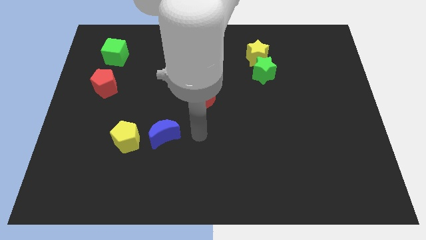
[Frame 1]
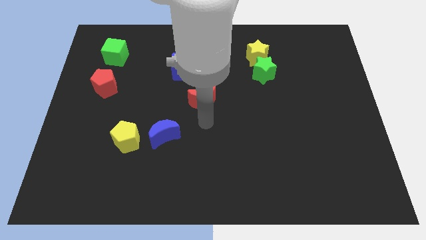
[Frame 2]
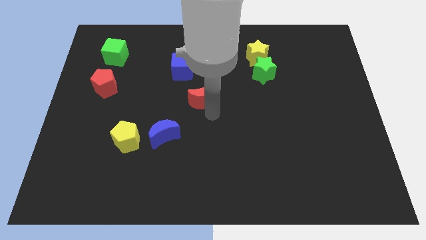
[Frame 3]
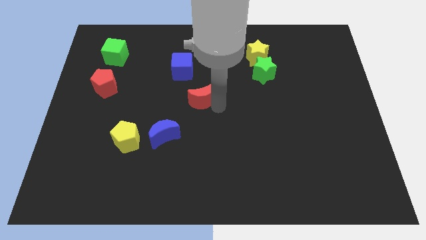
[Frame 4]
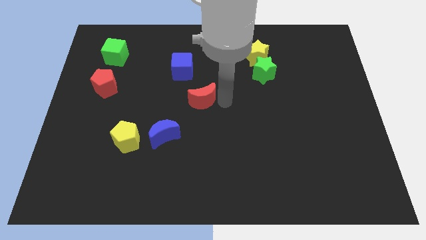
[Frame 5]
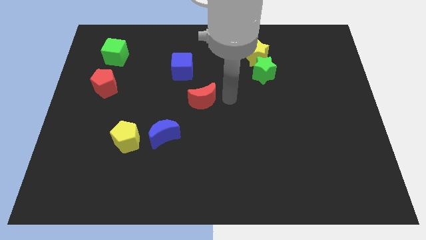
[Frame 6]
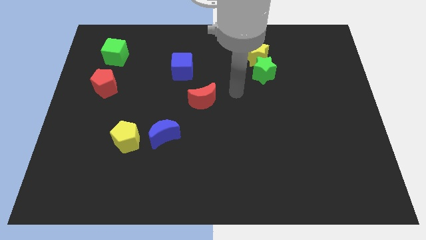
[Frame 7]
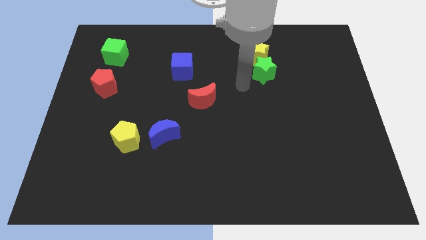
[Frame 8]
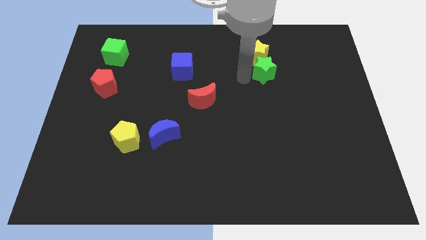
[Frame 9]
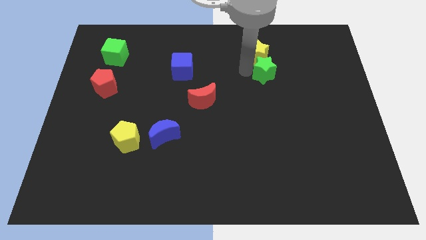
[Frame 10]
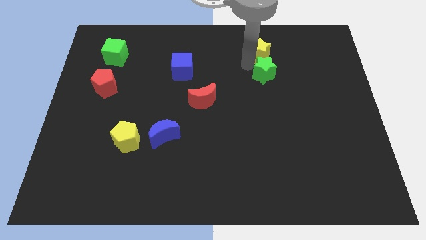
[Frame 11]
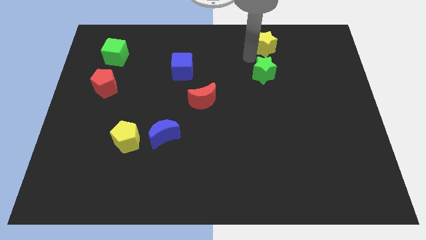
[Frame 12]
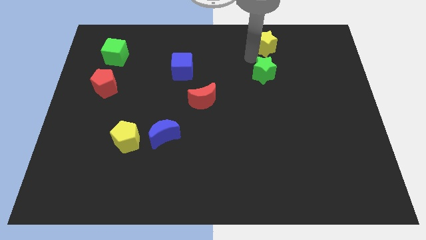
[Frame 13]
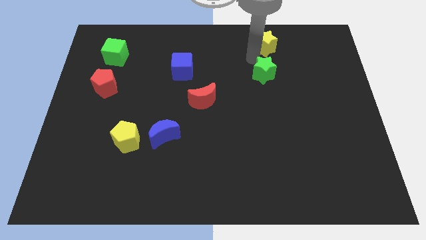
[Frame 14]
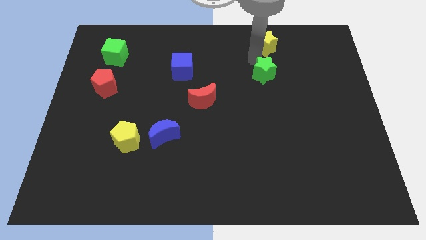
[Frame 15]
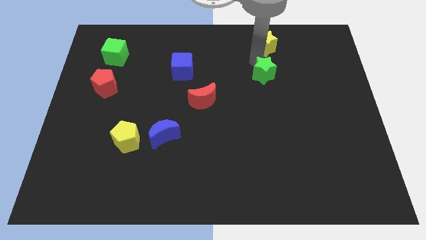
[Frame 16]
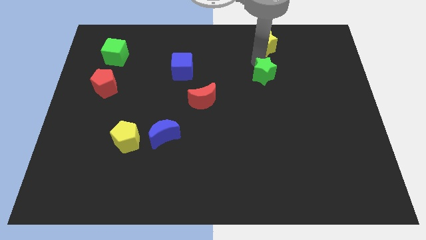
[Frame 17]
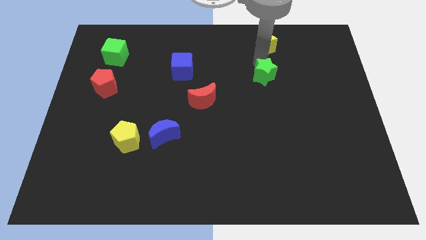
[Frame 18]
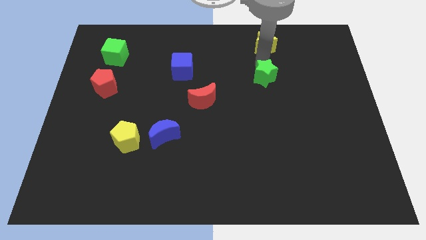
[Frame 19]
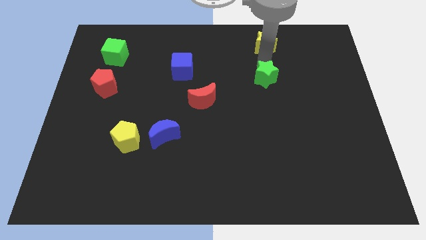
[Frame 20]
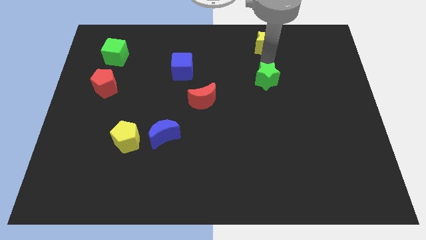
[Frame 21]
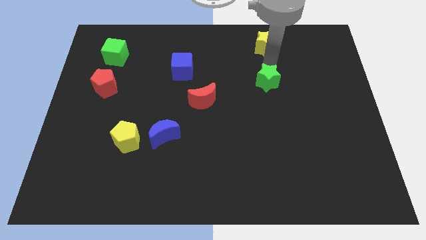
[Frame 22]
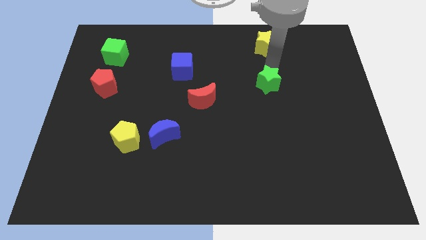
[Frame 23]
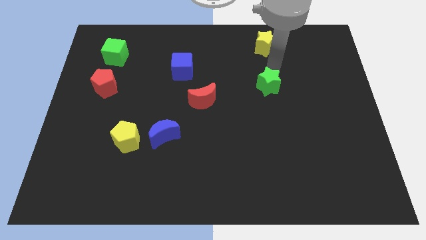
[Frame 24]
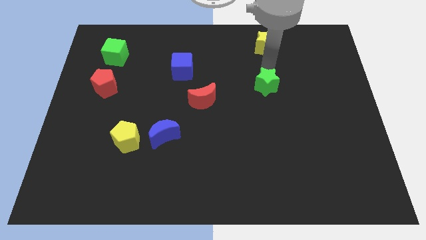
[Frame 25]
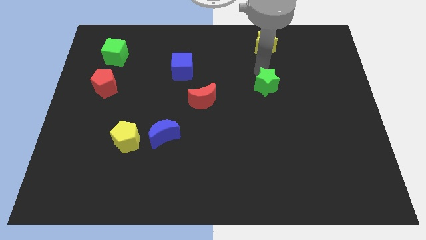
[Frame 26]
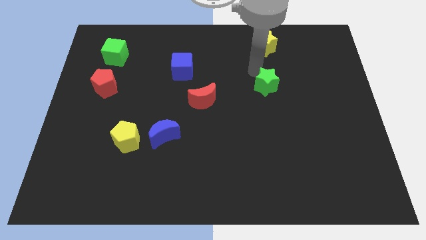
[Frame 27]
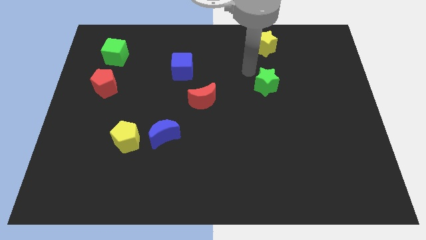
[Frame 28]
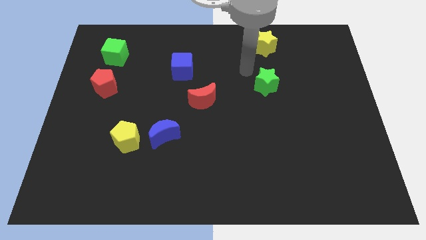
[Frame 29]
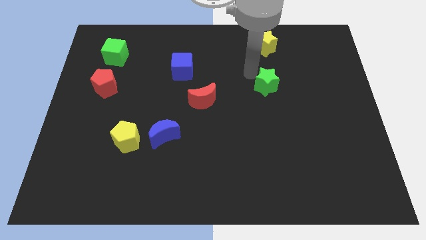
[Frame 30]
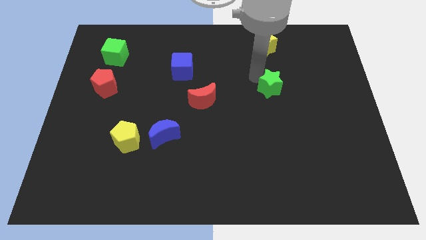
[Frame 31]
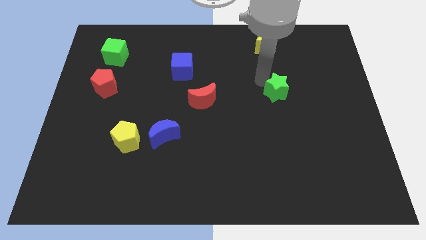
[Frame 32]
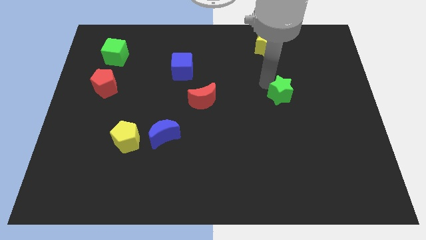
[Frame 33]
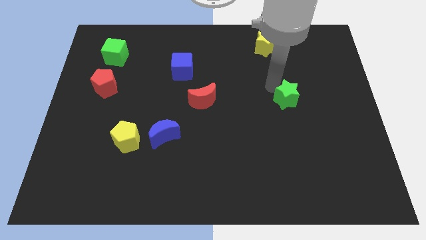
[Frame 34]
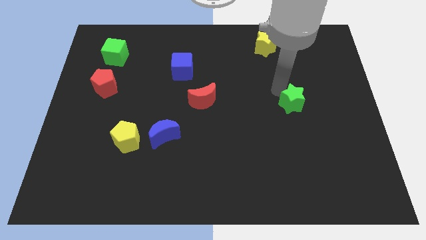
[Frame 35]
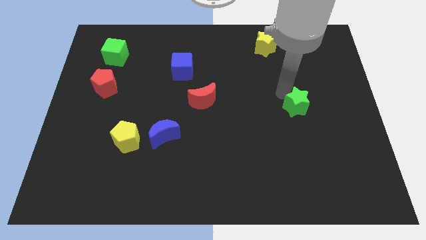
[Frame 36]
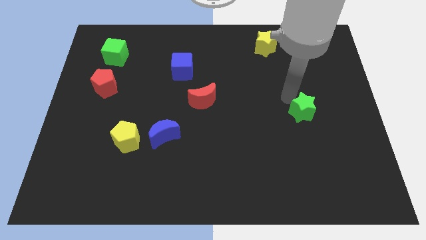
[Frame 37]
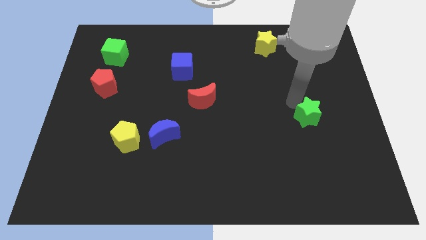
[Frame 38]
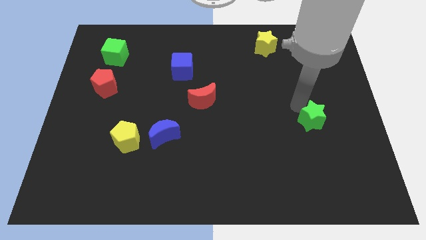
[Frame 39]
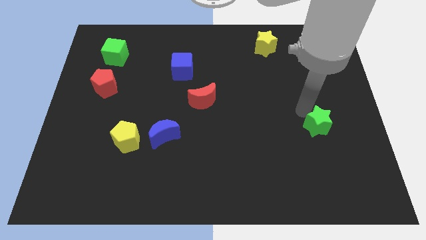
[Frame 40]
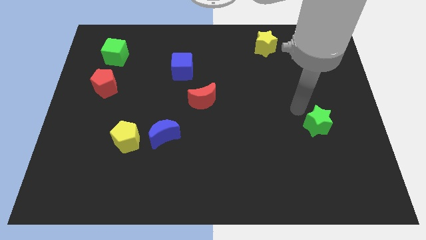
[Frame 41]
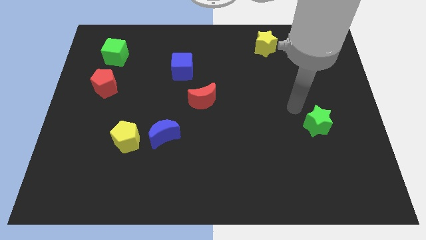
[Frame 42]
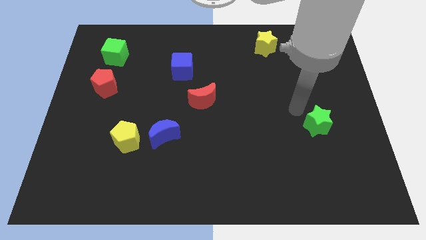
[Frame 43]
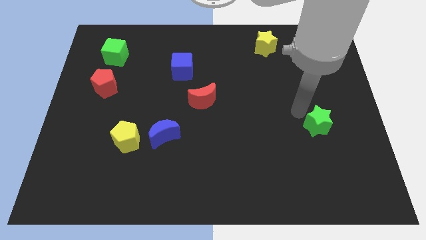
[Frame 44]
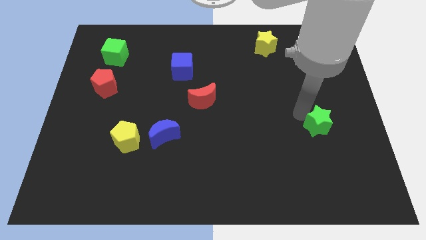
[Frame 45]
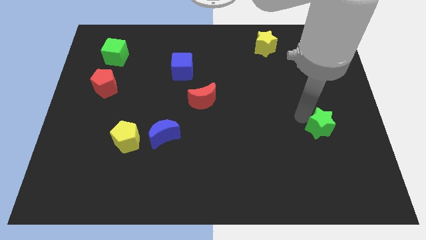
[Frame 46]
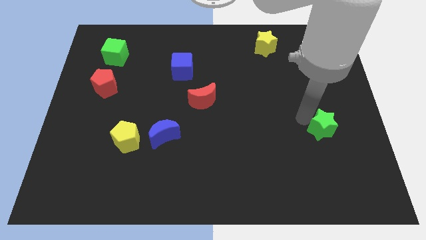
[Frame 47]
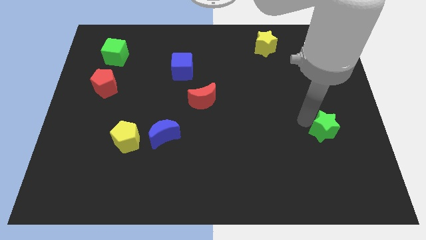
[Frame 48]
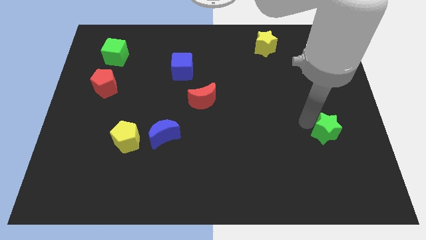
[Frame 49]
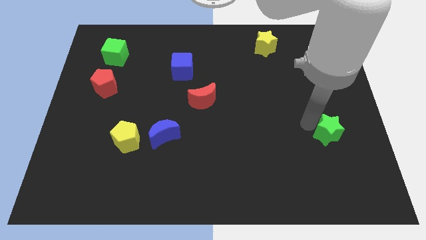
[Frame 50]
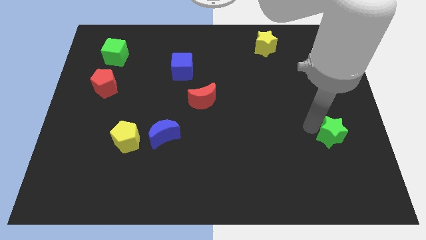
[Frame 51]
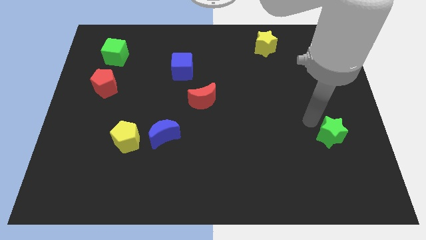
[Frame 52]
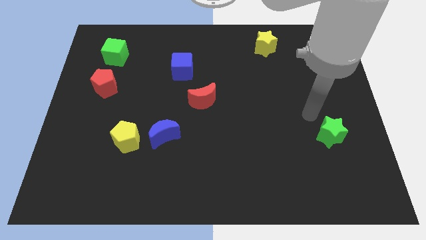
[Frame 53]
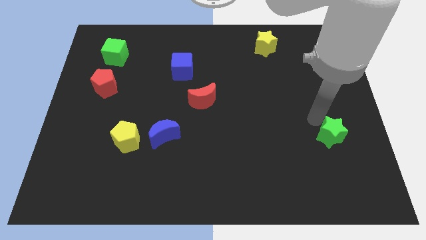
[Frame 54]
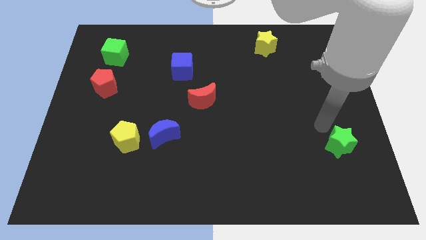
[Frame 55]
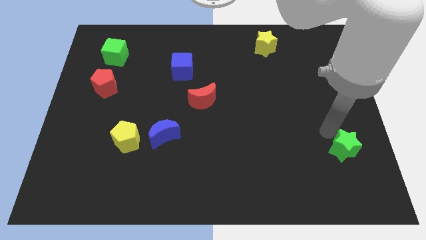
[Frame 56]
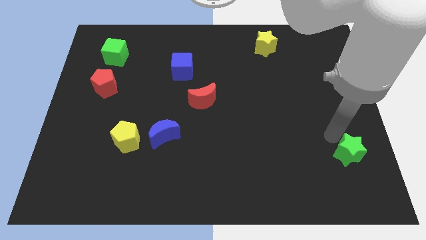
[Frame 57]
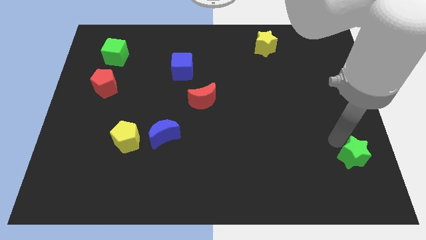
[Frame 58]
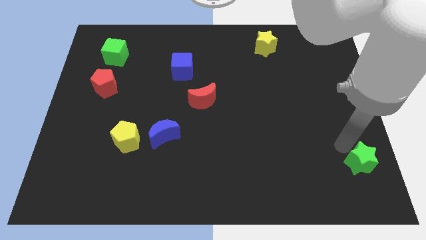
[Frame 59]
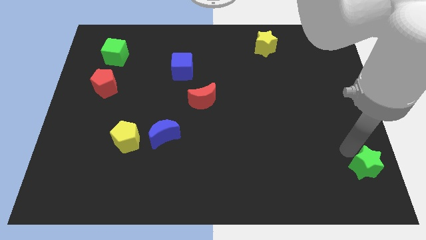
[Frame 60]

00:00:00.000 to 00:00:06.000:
push the green star to the bottom right

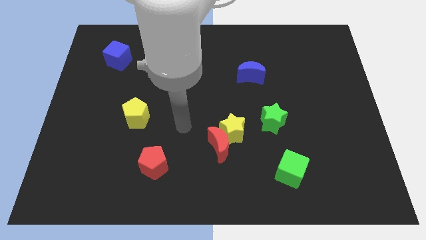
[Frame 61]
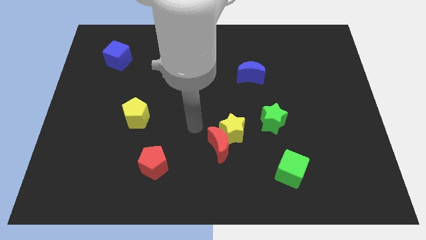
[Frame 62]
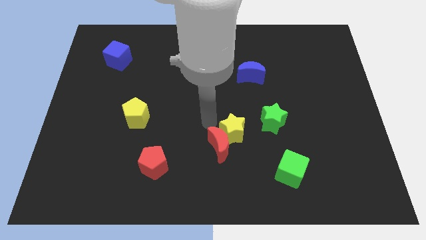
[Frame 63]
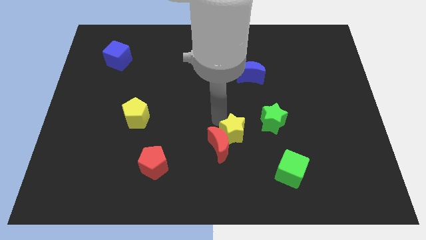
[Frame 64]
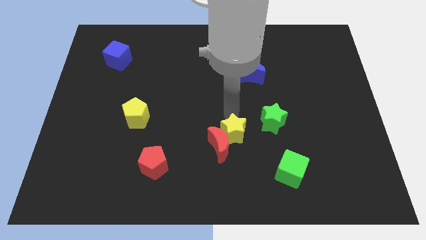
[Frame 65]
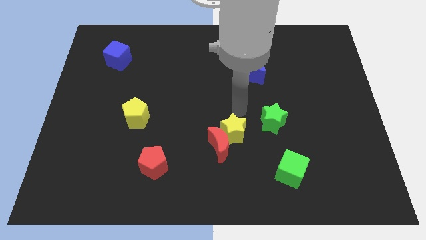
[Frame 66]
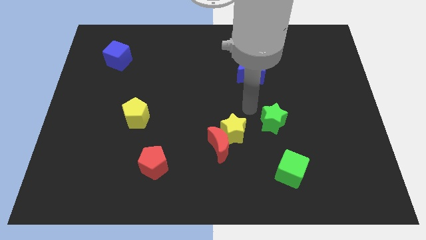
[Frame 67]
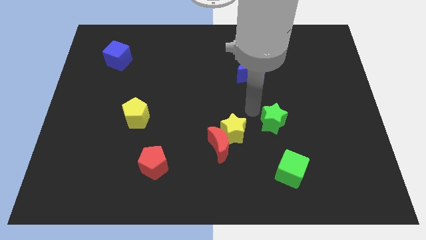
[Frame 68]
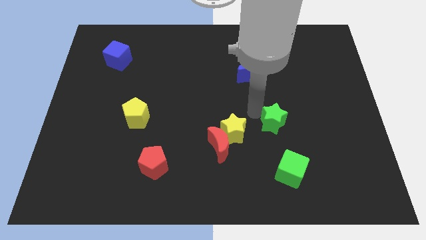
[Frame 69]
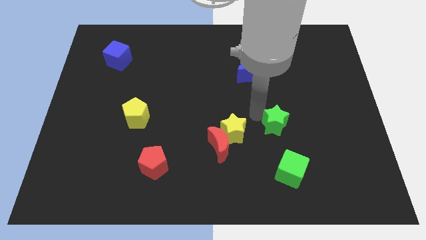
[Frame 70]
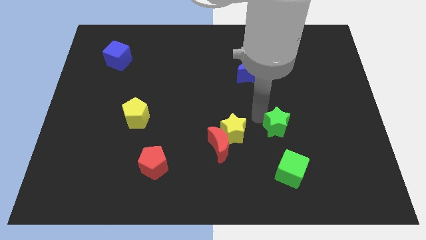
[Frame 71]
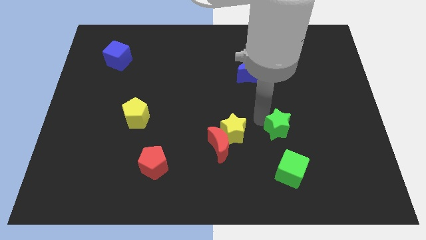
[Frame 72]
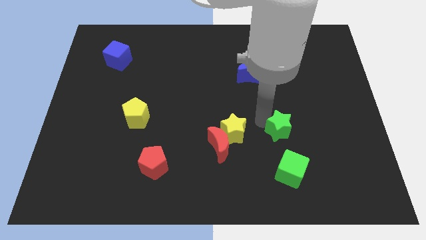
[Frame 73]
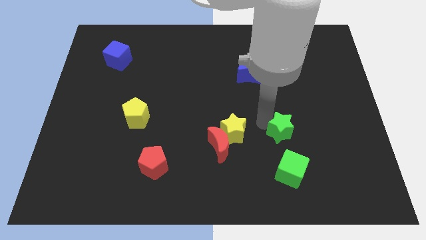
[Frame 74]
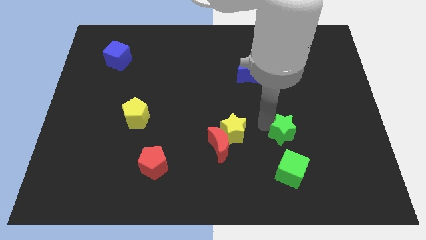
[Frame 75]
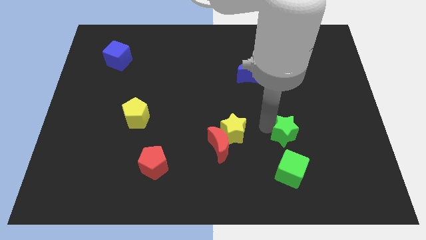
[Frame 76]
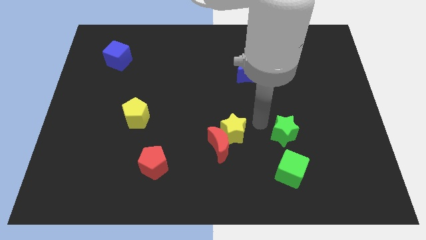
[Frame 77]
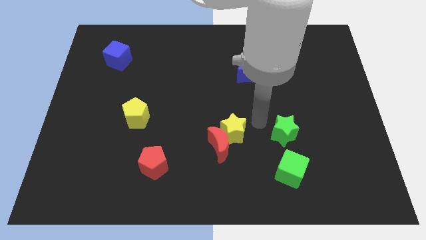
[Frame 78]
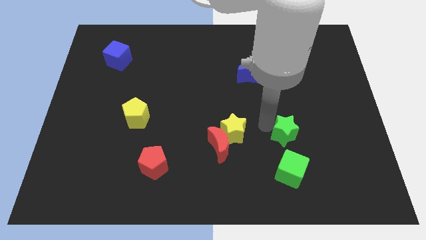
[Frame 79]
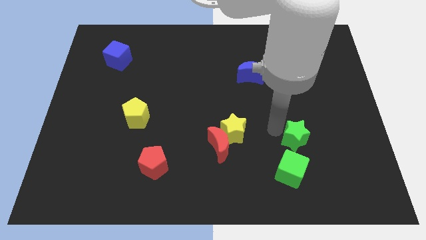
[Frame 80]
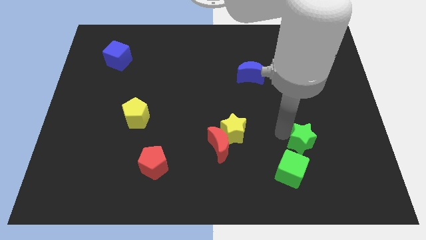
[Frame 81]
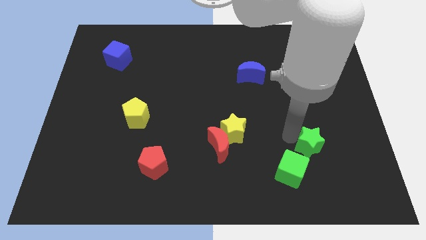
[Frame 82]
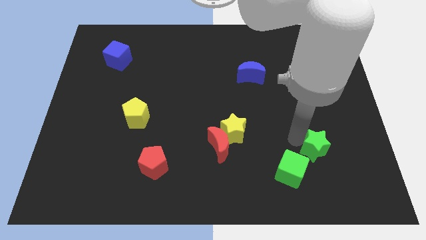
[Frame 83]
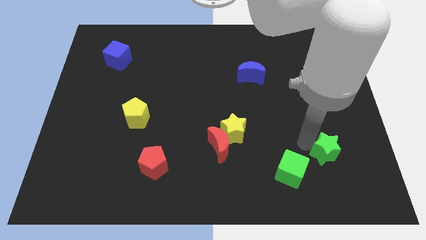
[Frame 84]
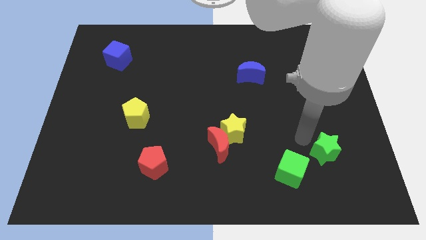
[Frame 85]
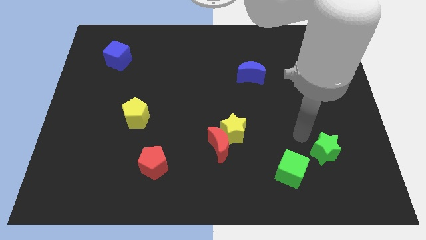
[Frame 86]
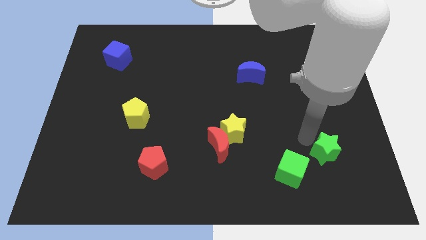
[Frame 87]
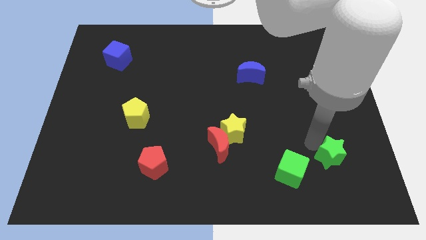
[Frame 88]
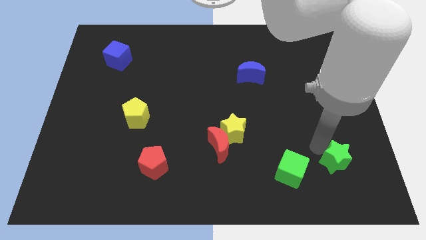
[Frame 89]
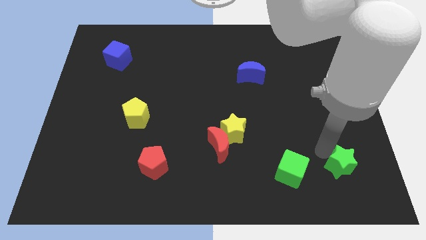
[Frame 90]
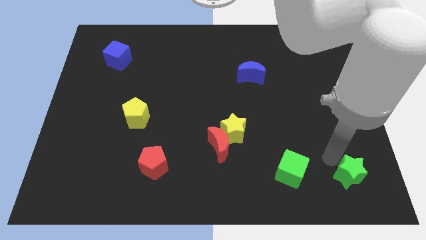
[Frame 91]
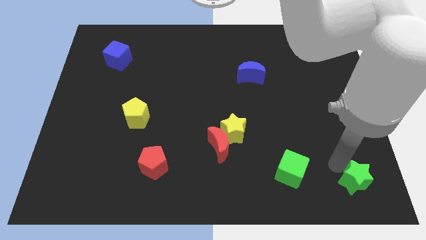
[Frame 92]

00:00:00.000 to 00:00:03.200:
move the green star to the bottom right of the board
